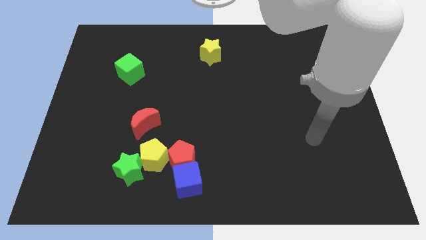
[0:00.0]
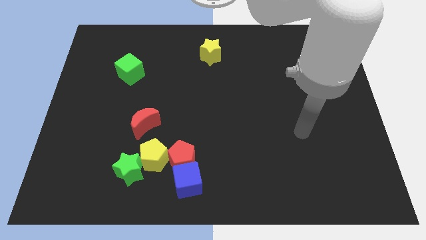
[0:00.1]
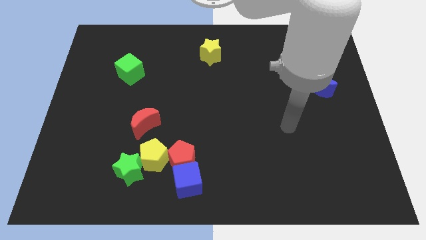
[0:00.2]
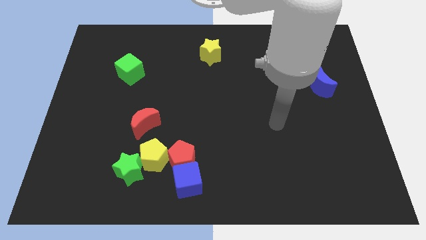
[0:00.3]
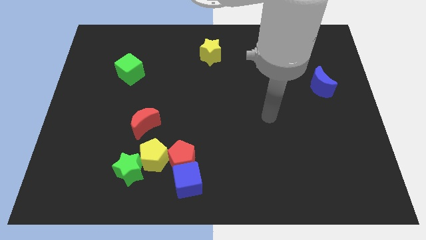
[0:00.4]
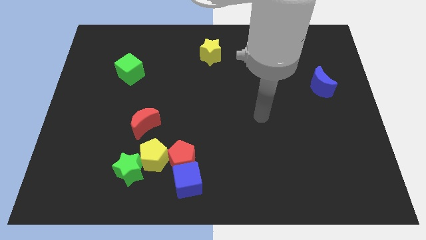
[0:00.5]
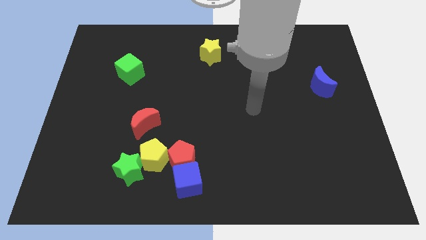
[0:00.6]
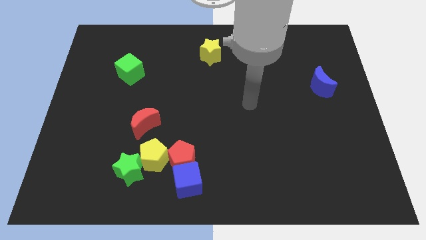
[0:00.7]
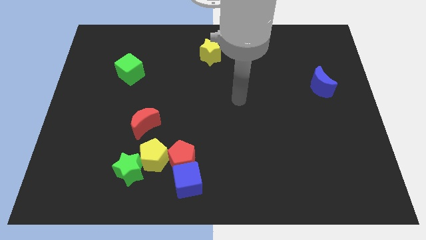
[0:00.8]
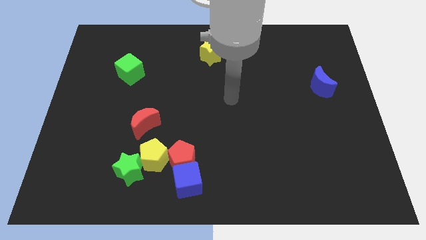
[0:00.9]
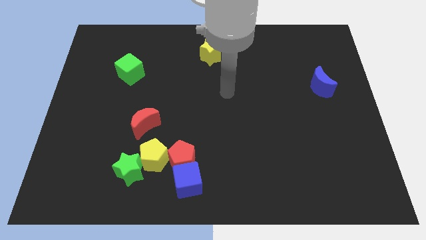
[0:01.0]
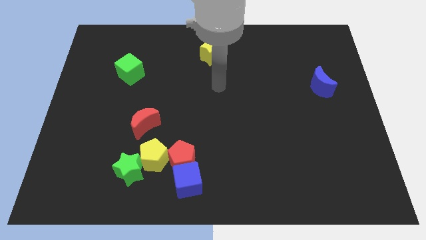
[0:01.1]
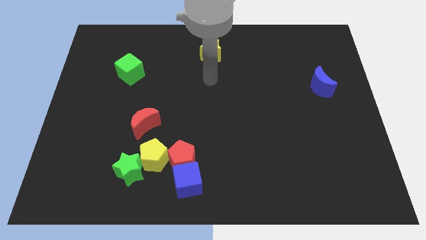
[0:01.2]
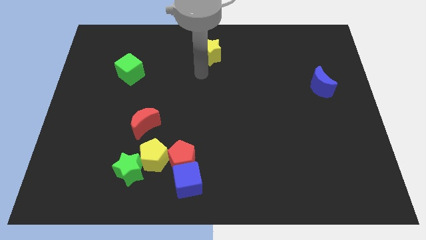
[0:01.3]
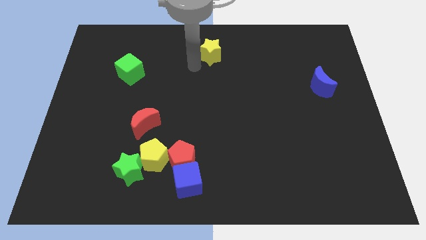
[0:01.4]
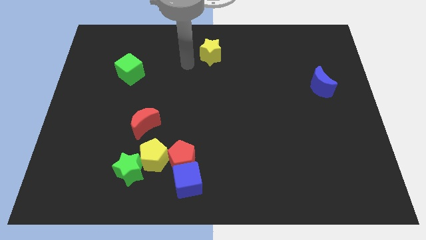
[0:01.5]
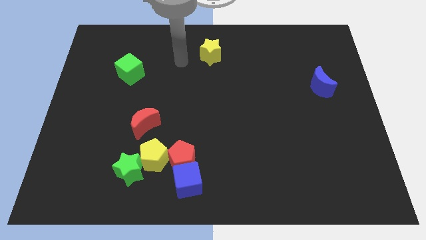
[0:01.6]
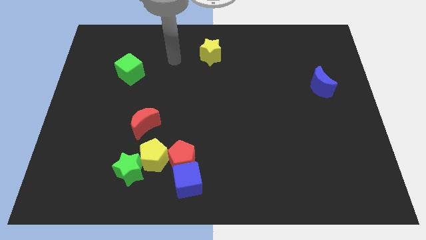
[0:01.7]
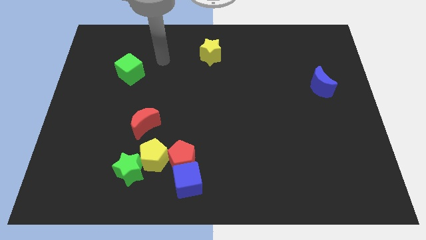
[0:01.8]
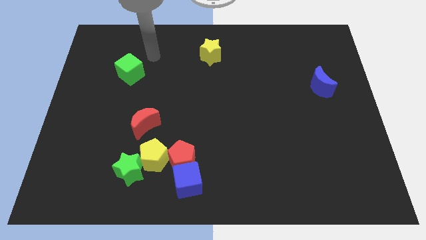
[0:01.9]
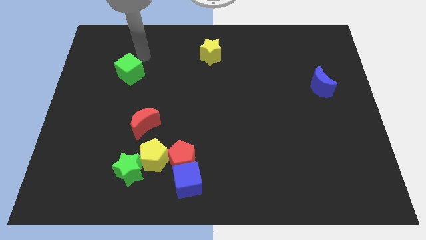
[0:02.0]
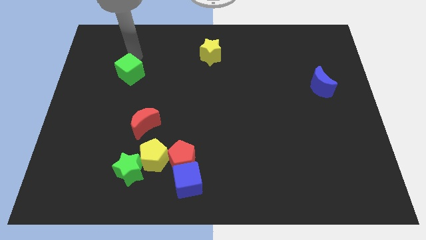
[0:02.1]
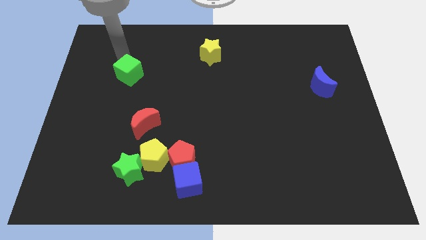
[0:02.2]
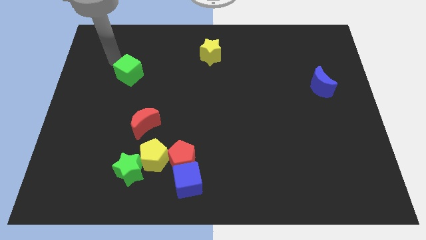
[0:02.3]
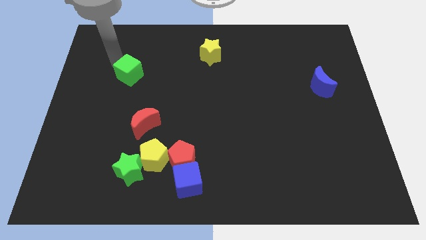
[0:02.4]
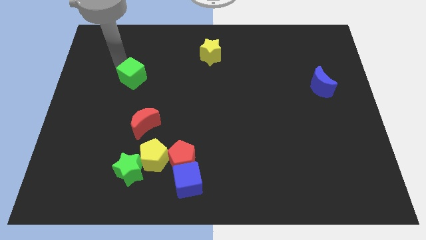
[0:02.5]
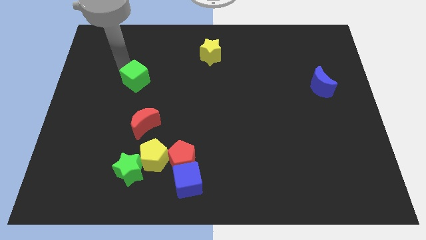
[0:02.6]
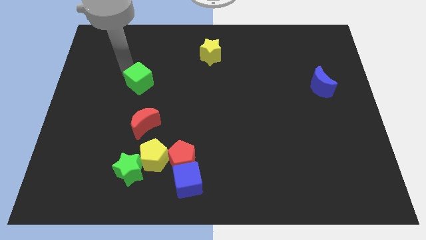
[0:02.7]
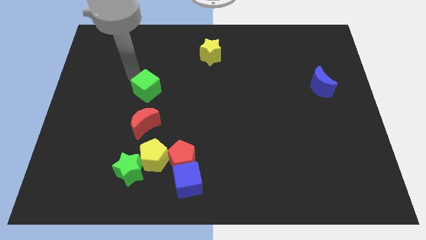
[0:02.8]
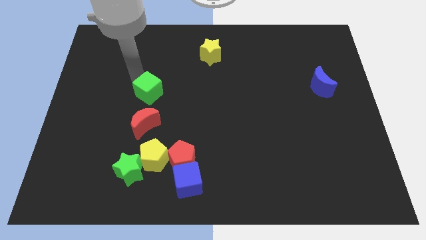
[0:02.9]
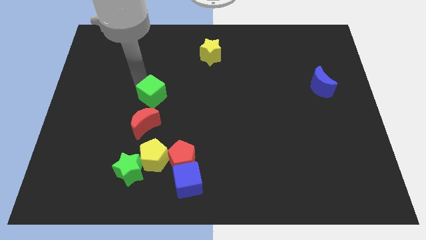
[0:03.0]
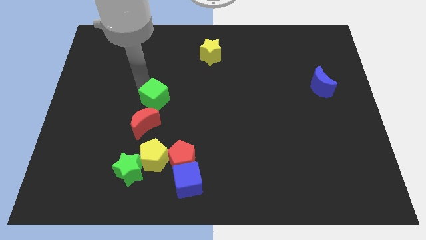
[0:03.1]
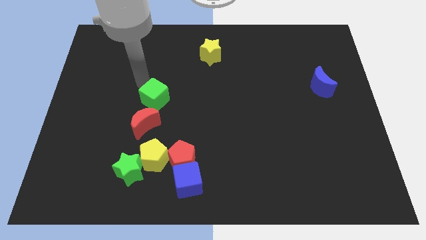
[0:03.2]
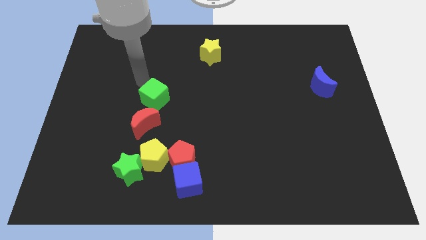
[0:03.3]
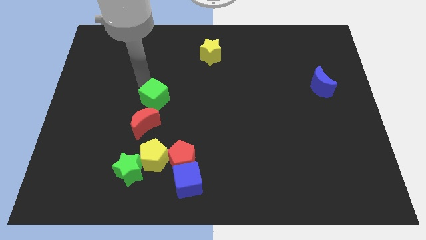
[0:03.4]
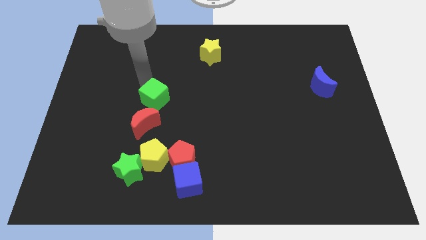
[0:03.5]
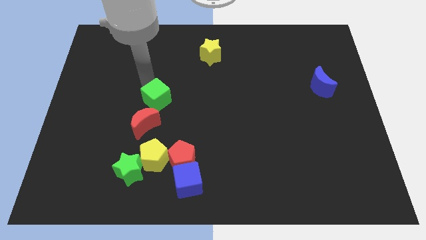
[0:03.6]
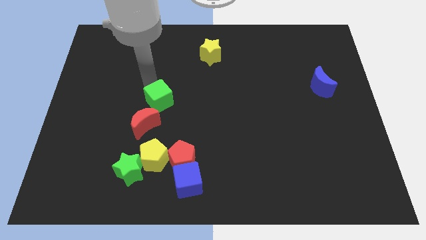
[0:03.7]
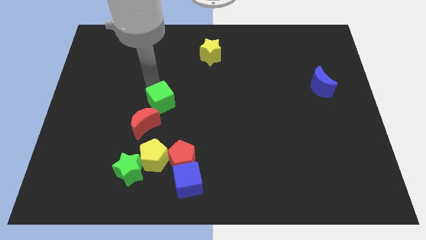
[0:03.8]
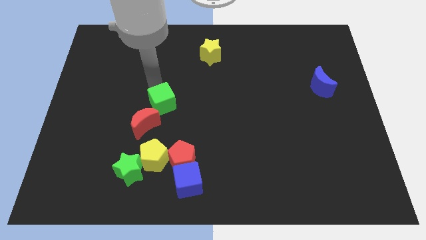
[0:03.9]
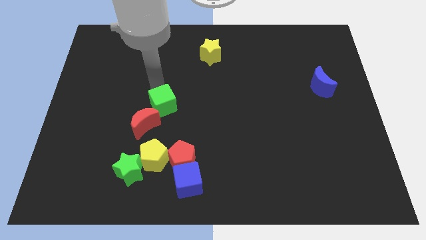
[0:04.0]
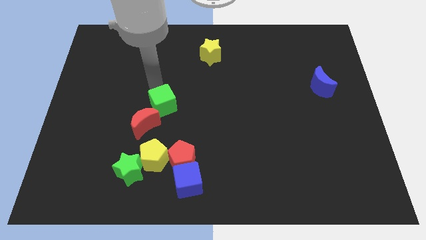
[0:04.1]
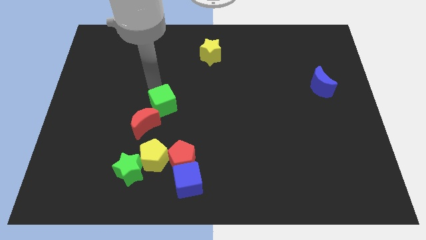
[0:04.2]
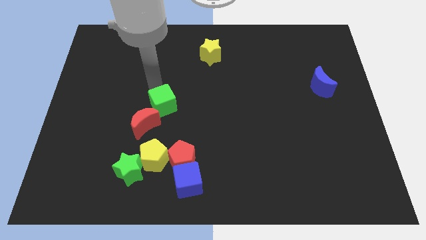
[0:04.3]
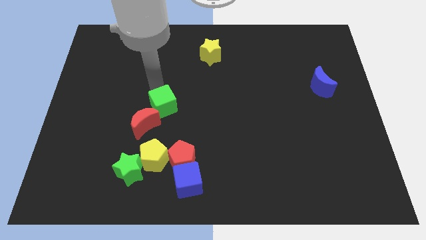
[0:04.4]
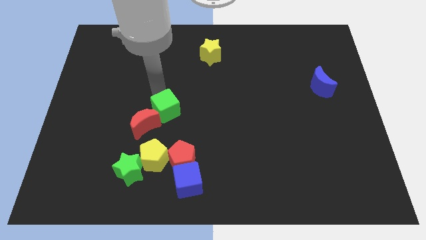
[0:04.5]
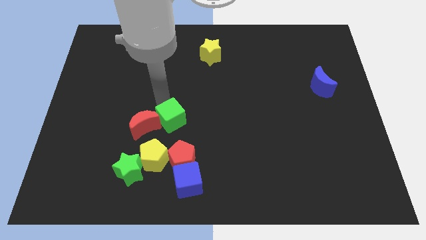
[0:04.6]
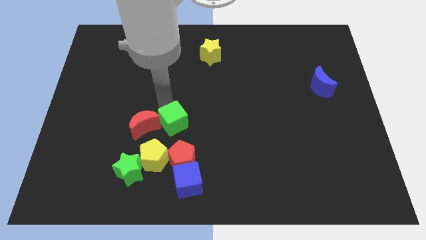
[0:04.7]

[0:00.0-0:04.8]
slide the green cube to the top right side of the yellow pentagon

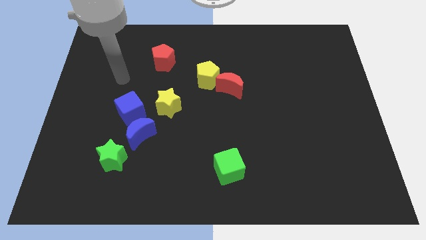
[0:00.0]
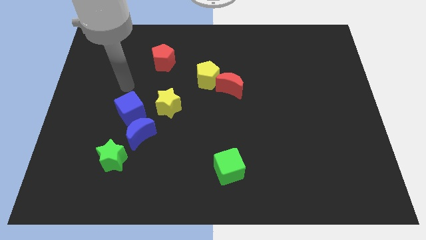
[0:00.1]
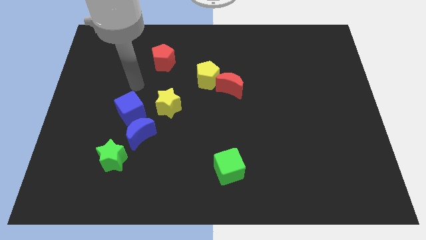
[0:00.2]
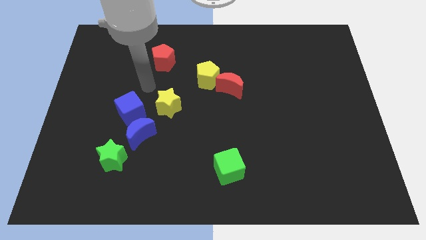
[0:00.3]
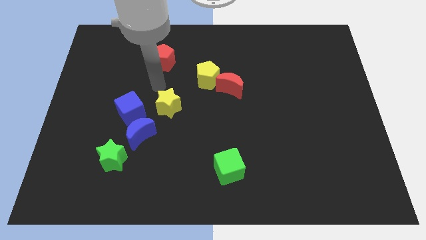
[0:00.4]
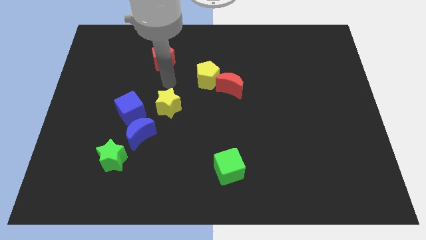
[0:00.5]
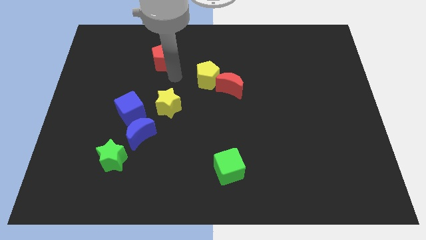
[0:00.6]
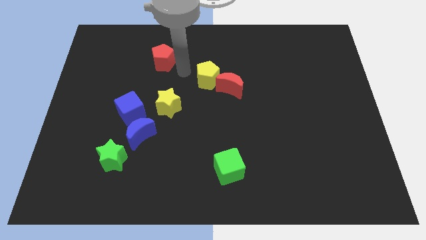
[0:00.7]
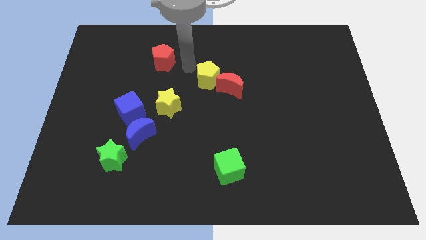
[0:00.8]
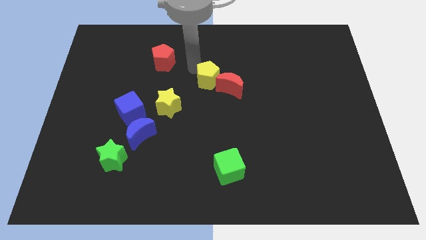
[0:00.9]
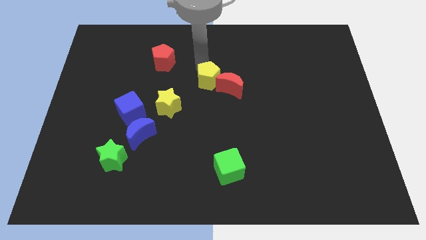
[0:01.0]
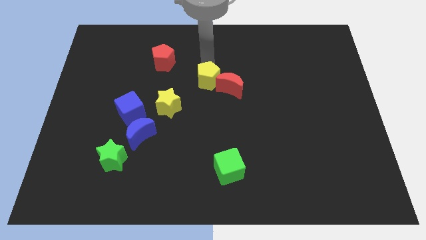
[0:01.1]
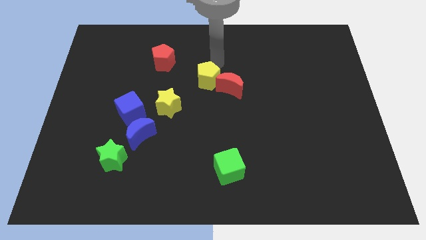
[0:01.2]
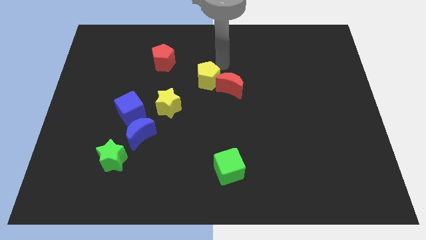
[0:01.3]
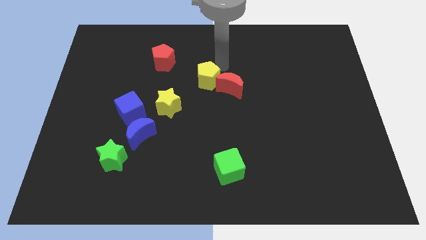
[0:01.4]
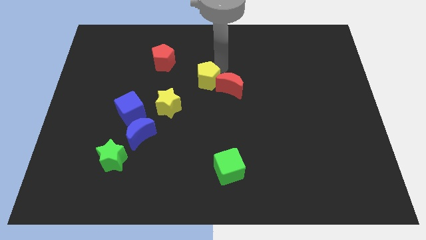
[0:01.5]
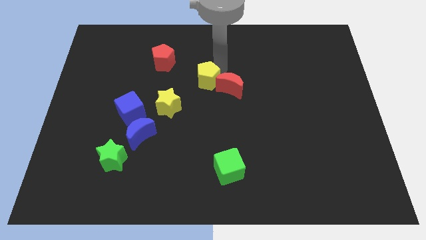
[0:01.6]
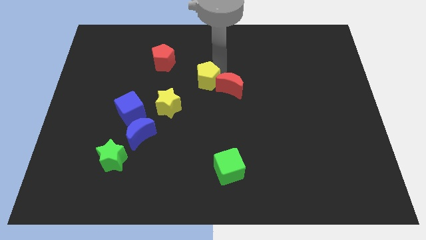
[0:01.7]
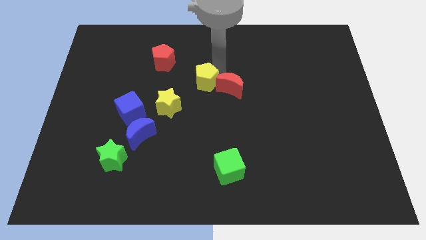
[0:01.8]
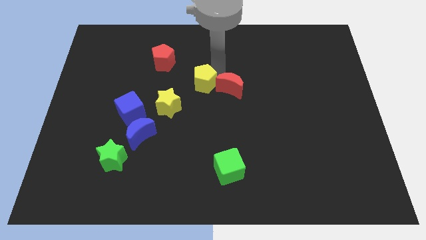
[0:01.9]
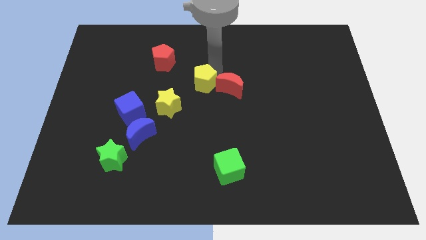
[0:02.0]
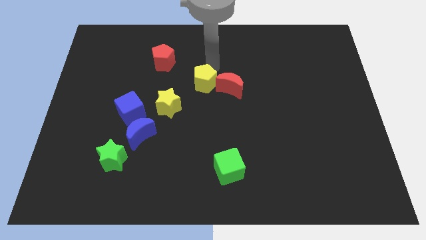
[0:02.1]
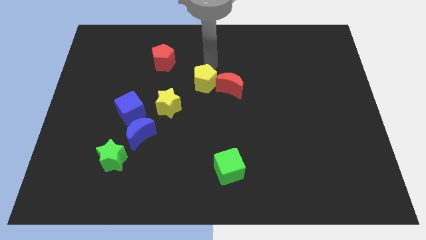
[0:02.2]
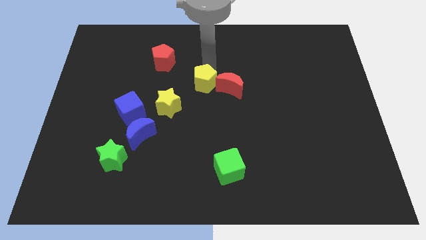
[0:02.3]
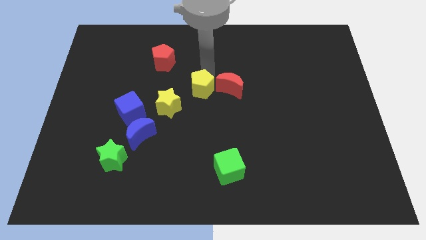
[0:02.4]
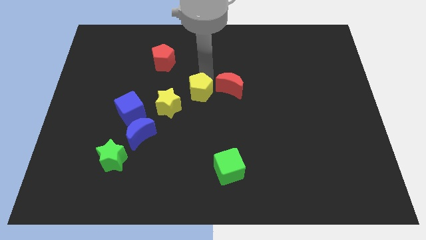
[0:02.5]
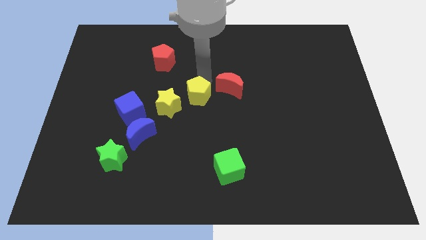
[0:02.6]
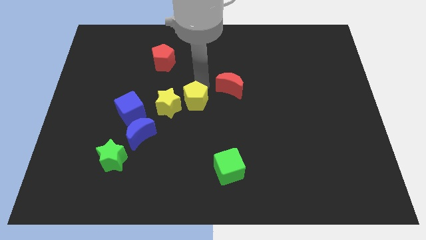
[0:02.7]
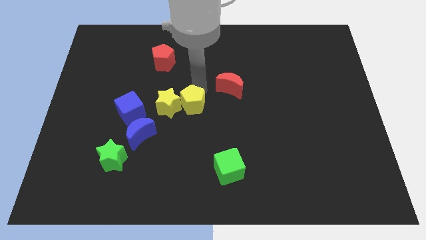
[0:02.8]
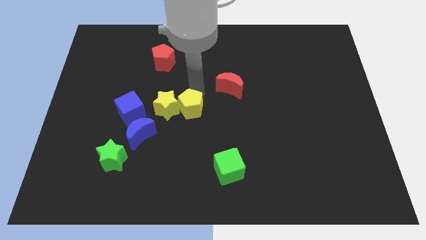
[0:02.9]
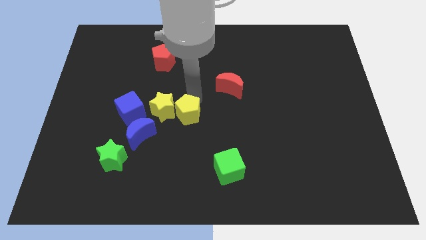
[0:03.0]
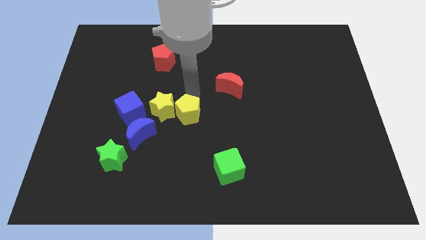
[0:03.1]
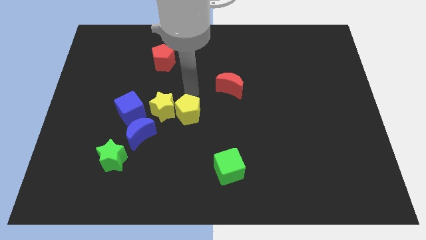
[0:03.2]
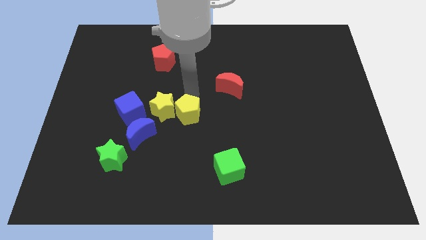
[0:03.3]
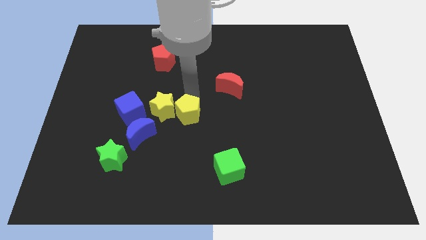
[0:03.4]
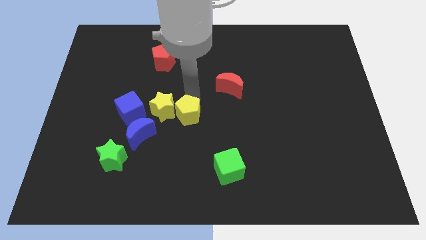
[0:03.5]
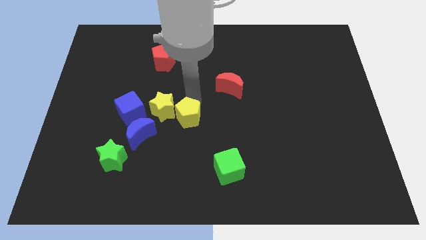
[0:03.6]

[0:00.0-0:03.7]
push the yellow pentagon just right of the blue moon
